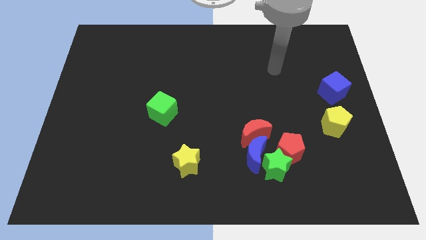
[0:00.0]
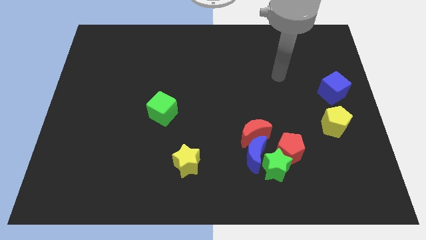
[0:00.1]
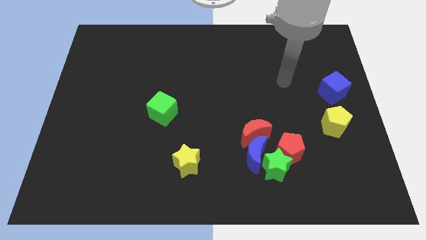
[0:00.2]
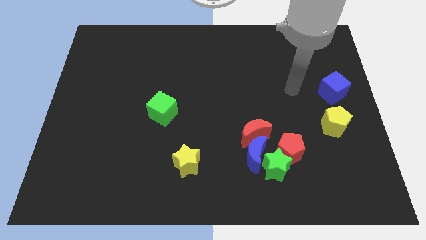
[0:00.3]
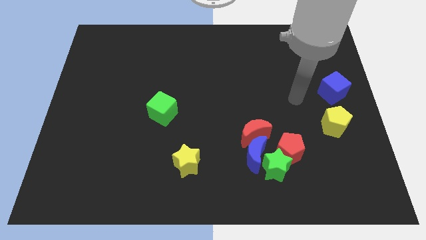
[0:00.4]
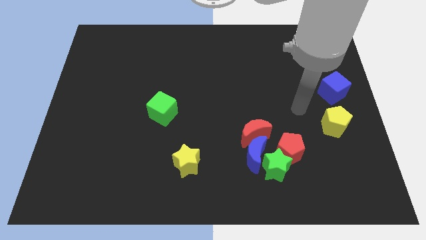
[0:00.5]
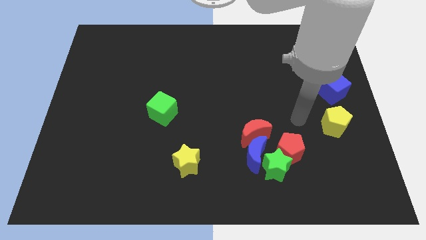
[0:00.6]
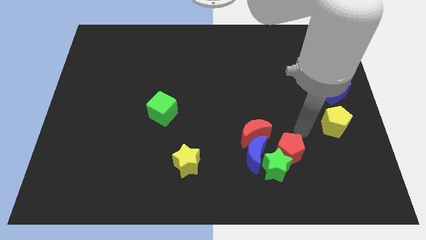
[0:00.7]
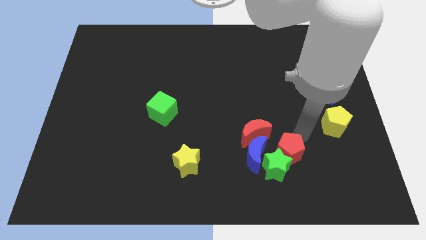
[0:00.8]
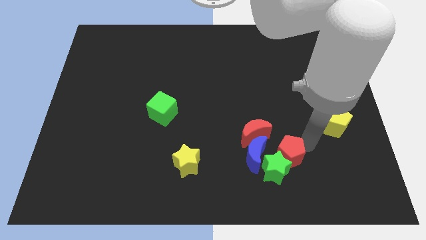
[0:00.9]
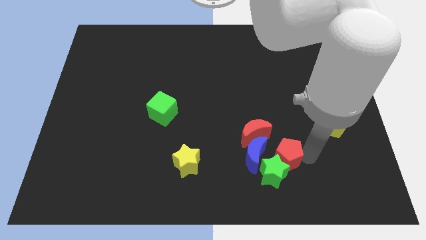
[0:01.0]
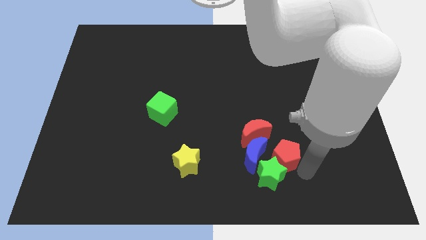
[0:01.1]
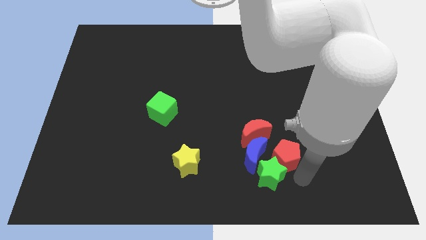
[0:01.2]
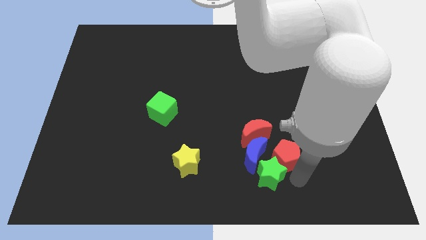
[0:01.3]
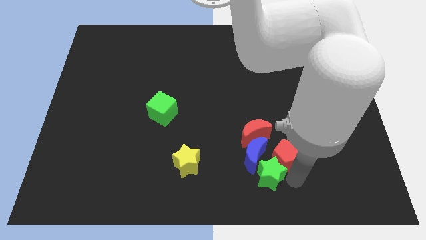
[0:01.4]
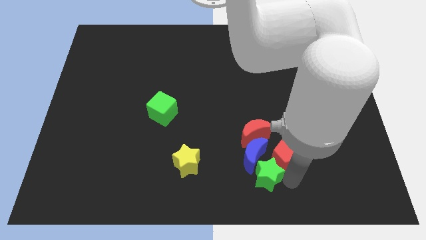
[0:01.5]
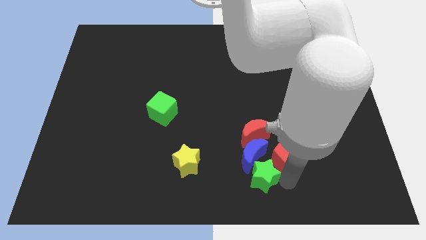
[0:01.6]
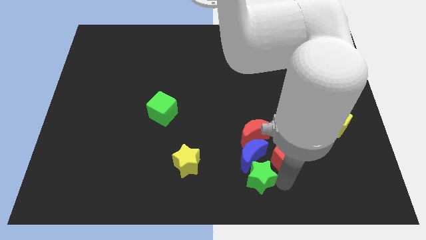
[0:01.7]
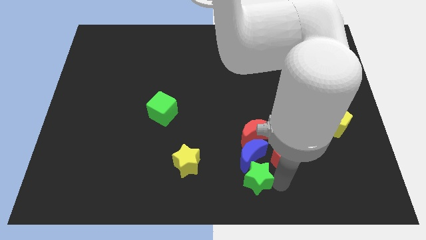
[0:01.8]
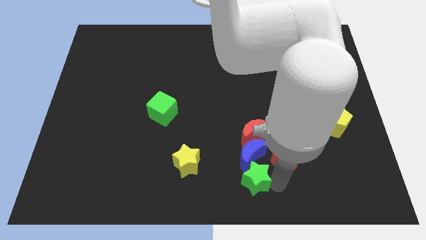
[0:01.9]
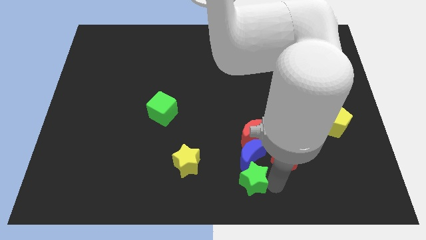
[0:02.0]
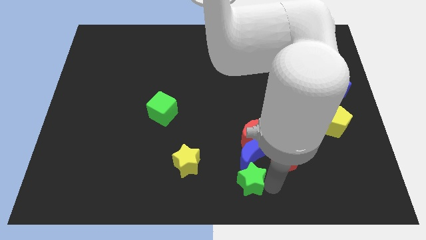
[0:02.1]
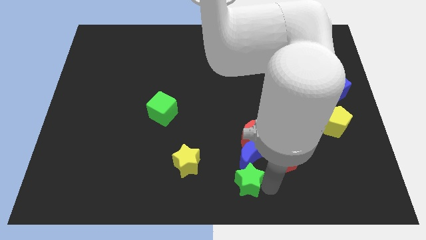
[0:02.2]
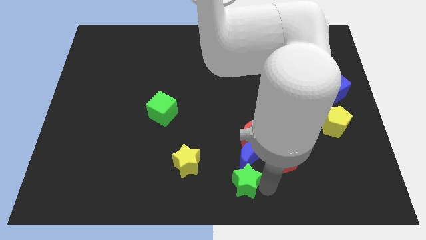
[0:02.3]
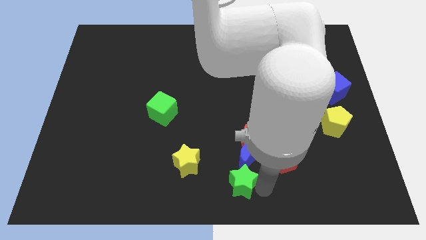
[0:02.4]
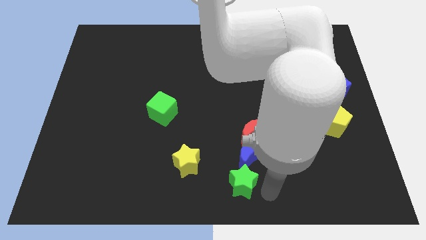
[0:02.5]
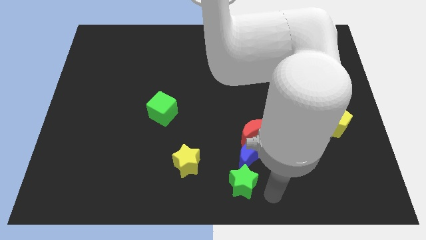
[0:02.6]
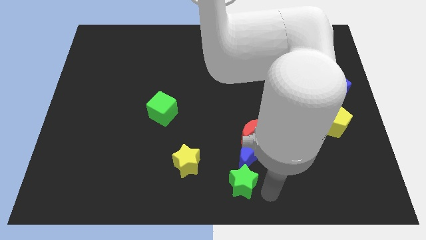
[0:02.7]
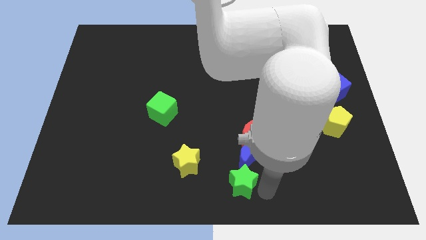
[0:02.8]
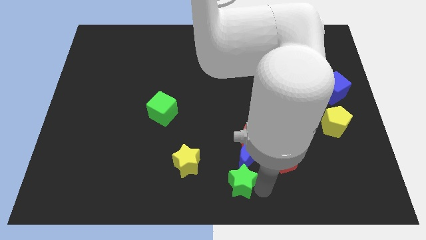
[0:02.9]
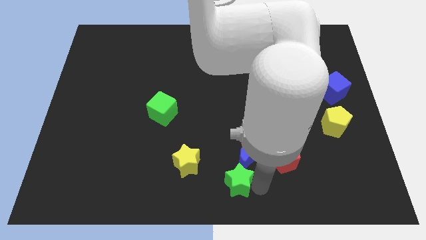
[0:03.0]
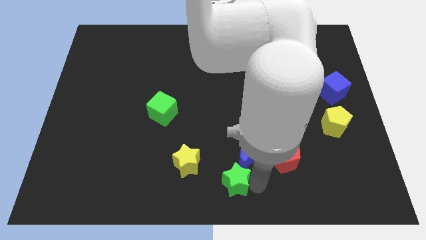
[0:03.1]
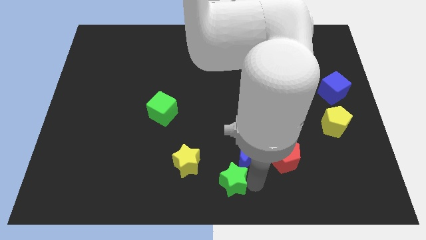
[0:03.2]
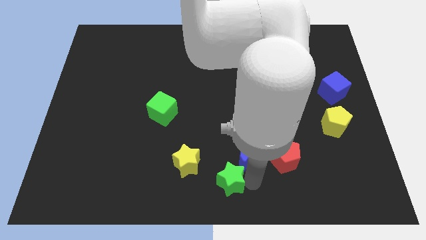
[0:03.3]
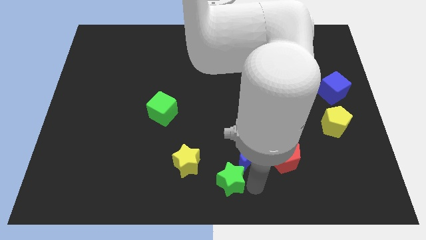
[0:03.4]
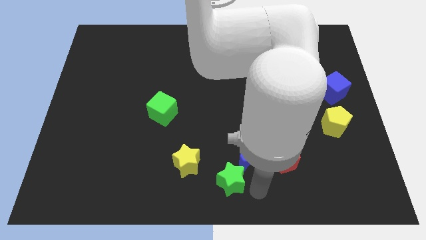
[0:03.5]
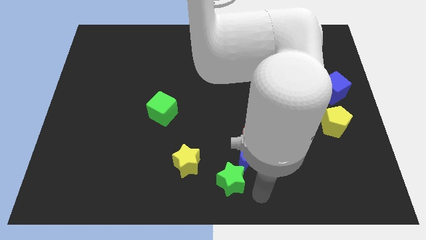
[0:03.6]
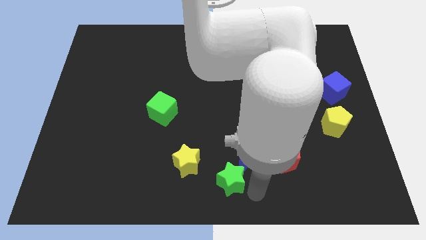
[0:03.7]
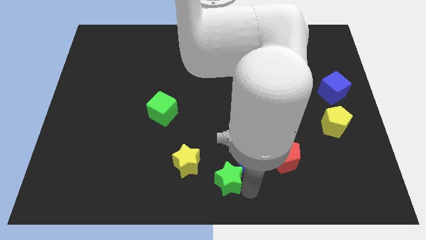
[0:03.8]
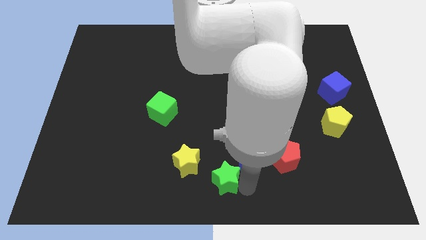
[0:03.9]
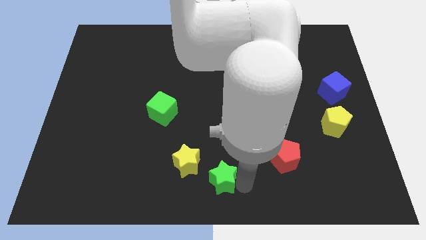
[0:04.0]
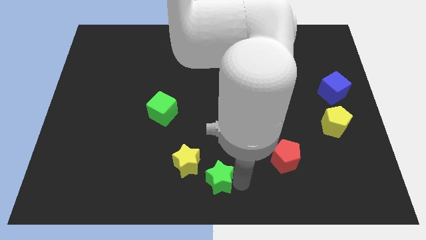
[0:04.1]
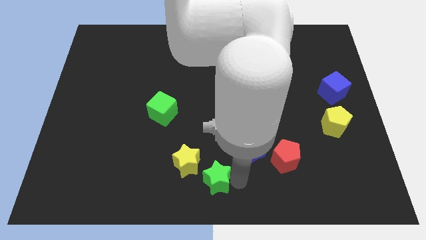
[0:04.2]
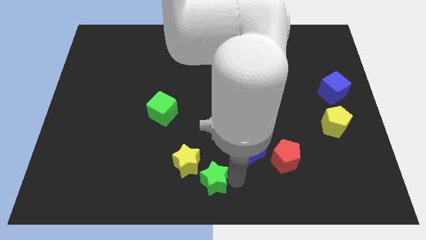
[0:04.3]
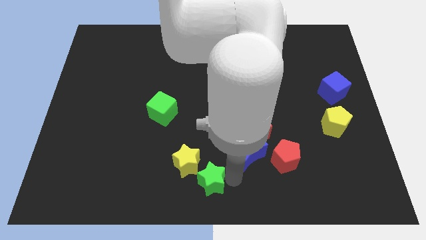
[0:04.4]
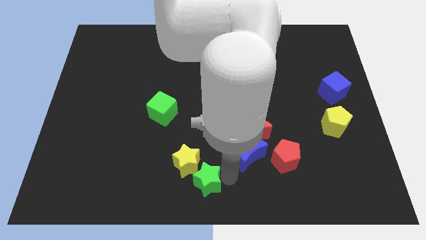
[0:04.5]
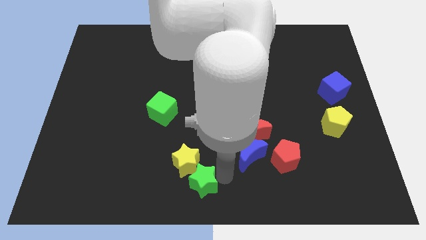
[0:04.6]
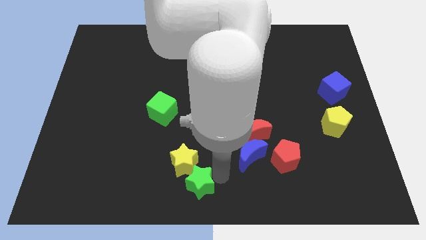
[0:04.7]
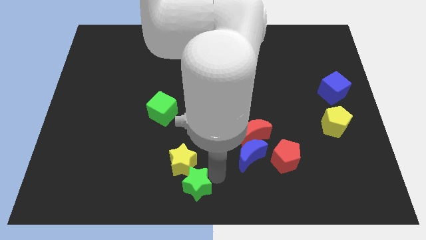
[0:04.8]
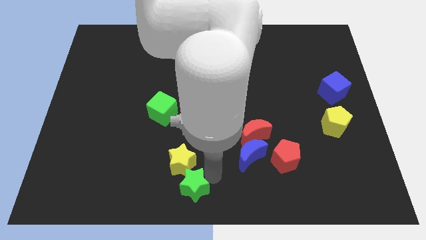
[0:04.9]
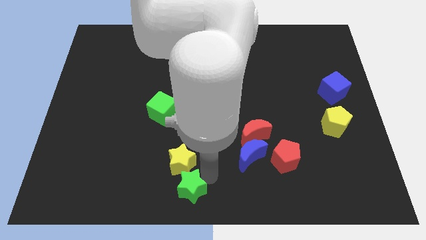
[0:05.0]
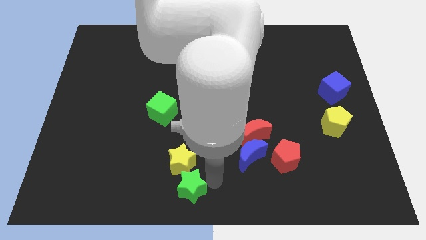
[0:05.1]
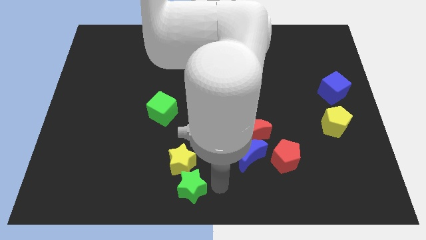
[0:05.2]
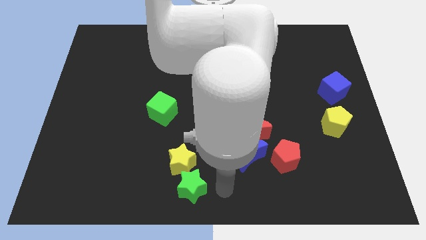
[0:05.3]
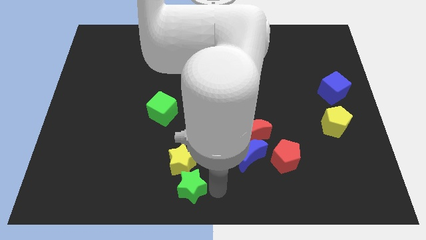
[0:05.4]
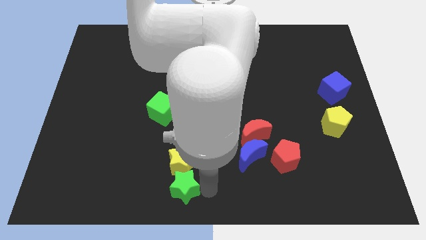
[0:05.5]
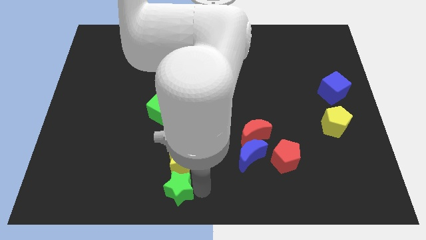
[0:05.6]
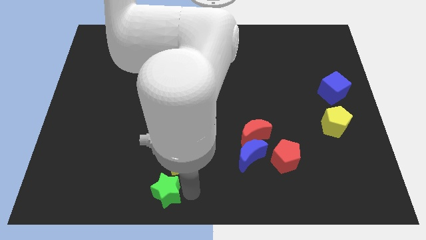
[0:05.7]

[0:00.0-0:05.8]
move the green star to the left

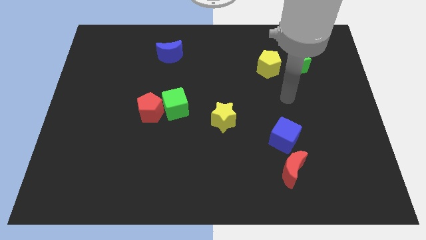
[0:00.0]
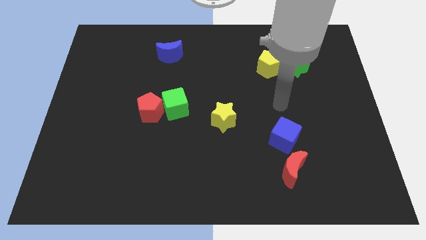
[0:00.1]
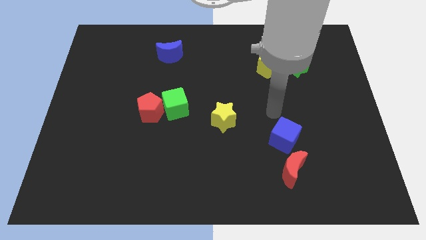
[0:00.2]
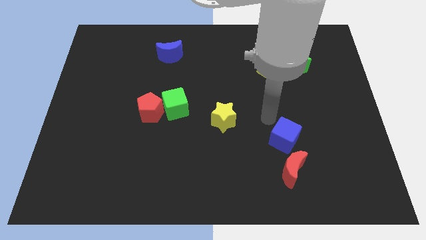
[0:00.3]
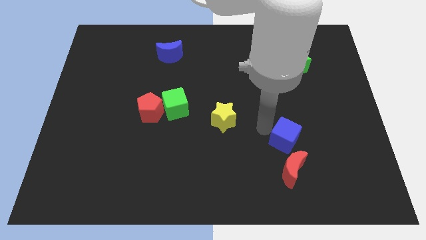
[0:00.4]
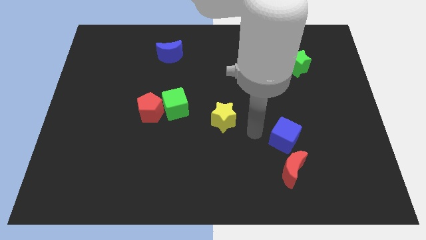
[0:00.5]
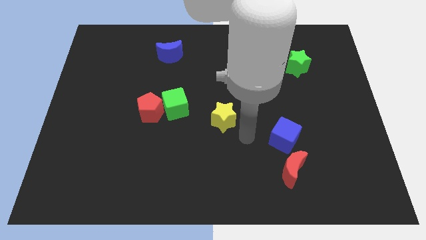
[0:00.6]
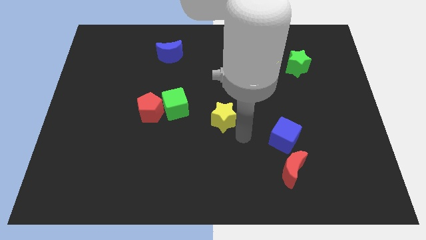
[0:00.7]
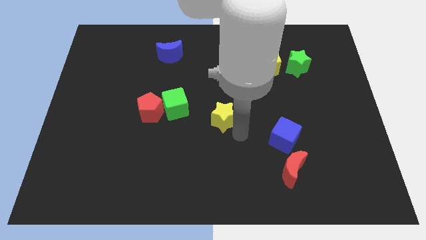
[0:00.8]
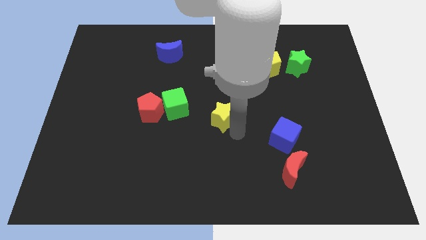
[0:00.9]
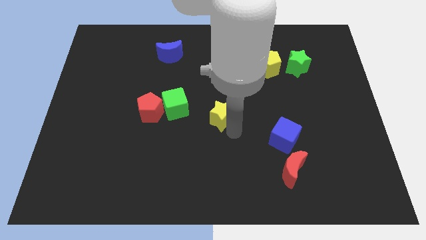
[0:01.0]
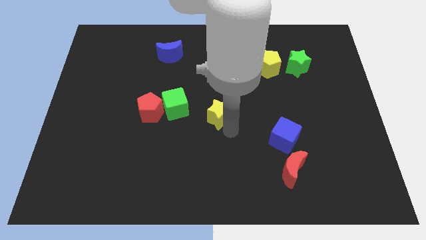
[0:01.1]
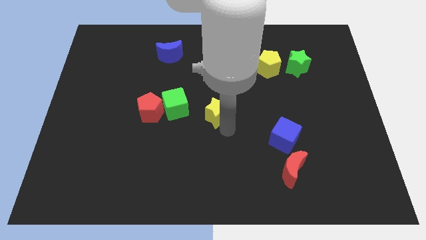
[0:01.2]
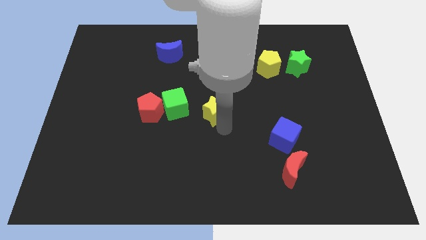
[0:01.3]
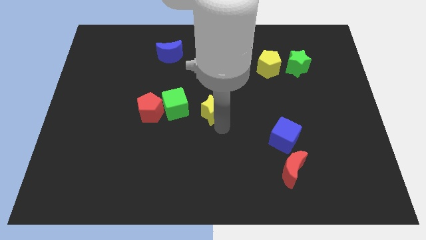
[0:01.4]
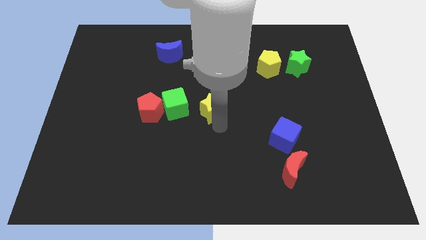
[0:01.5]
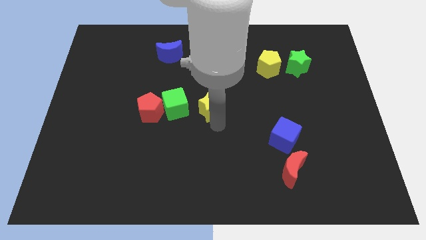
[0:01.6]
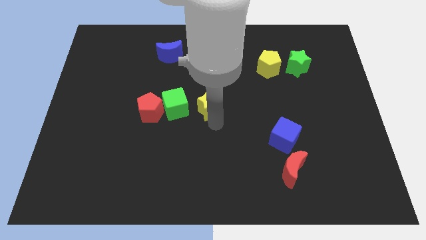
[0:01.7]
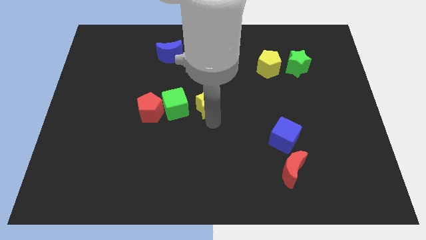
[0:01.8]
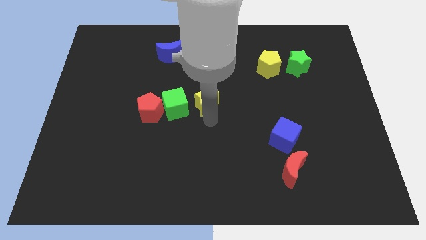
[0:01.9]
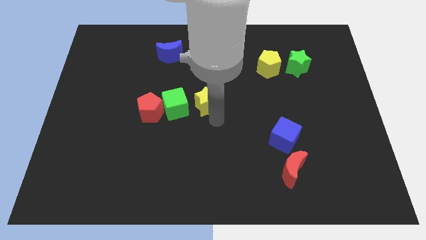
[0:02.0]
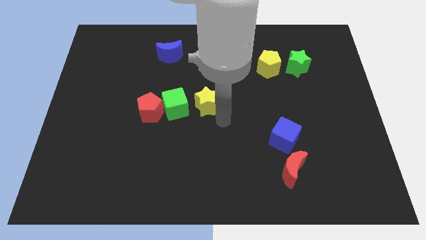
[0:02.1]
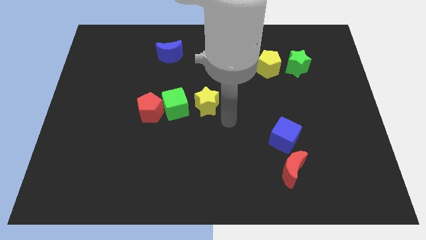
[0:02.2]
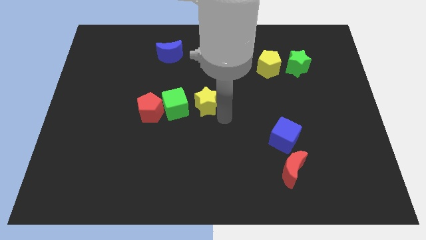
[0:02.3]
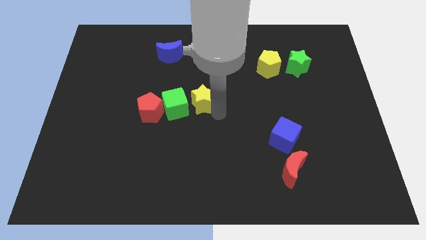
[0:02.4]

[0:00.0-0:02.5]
slide the yellow star slightly upwards and to the left diagonally
